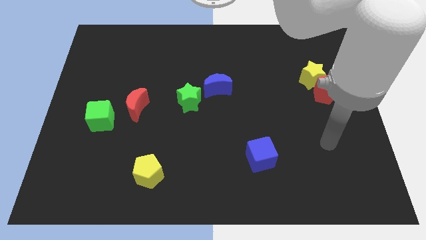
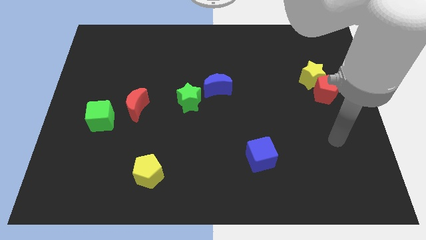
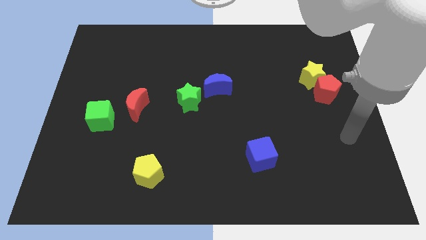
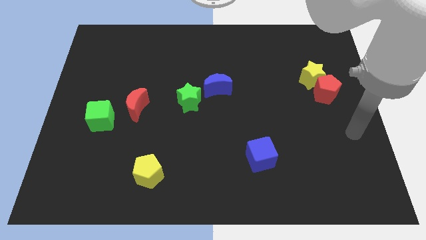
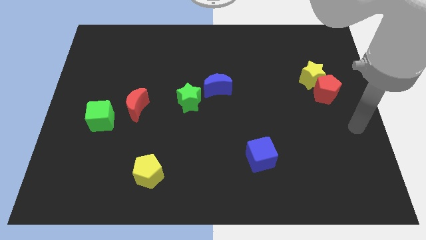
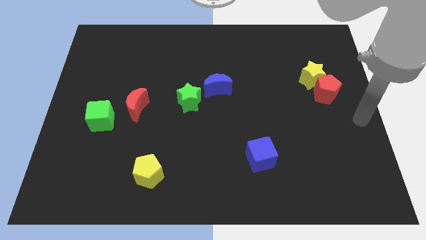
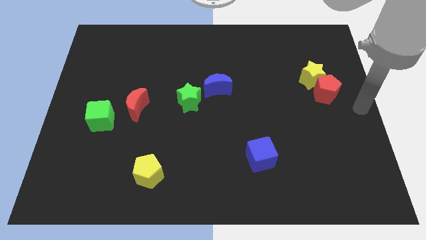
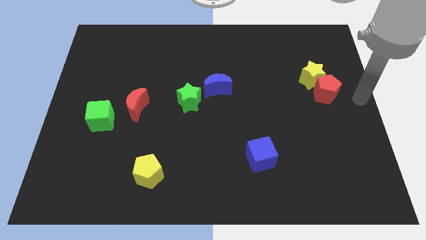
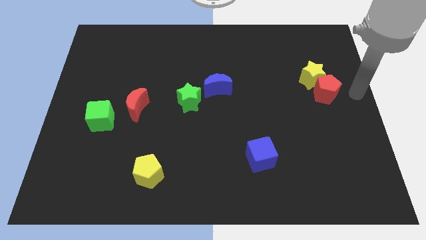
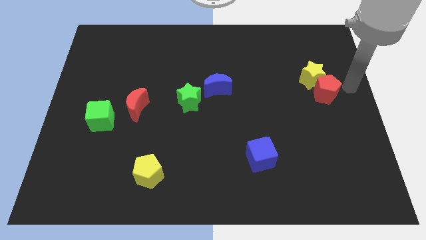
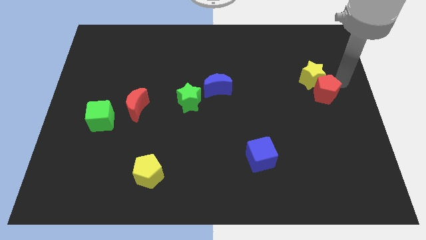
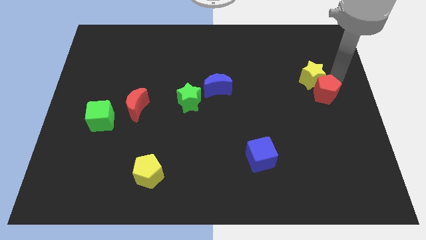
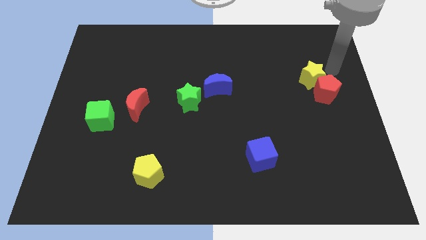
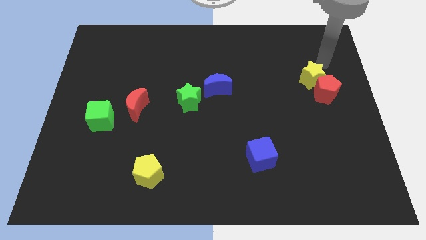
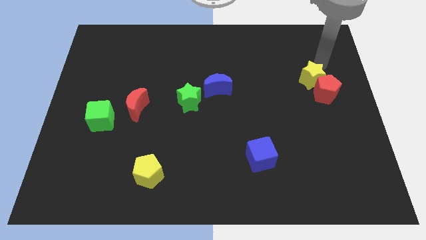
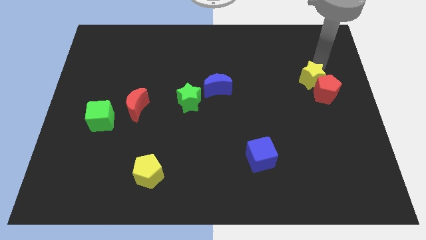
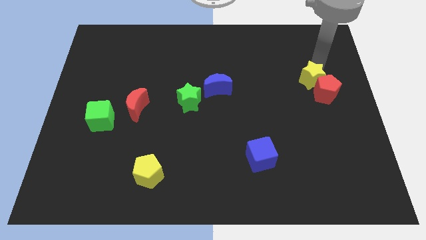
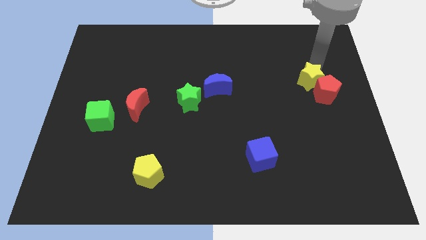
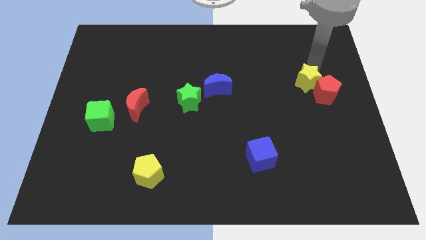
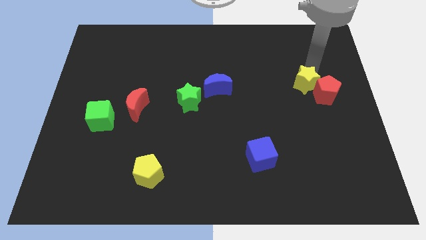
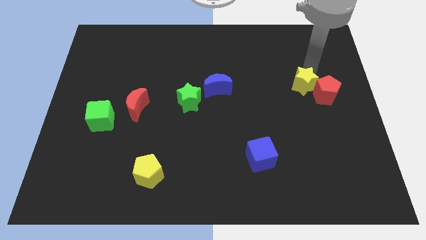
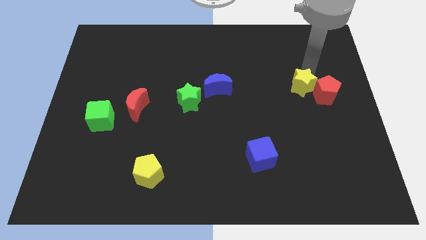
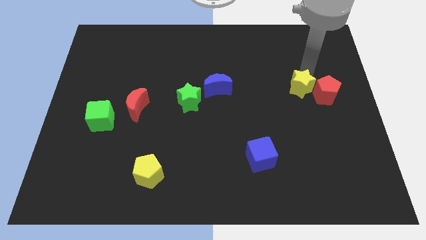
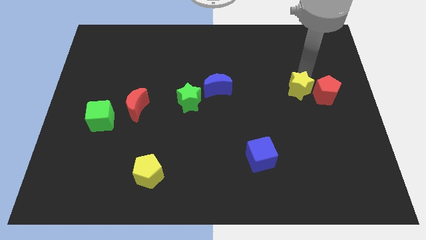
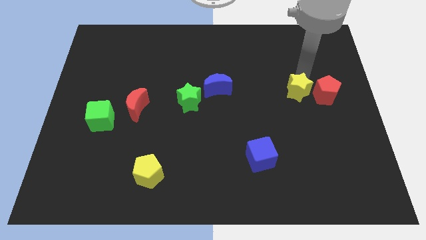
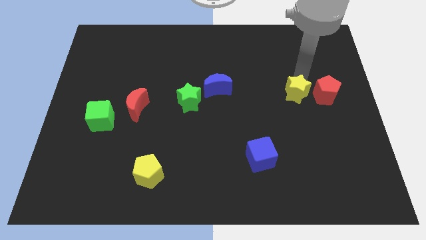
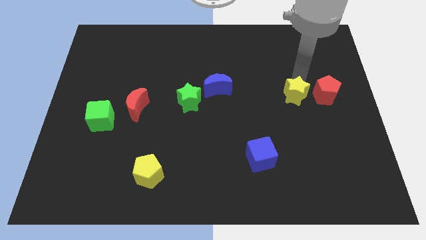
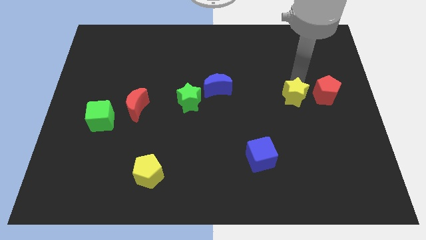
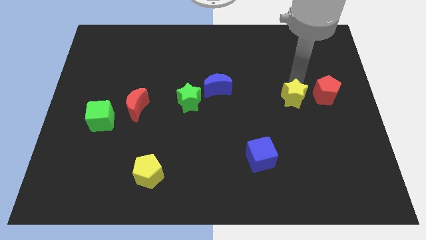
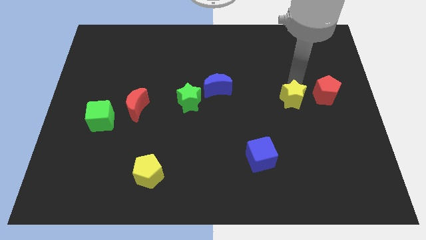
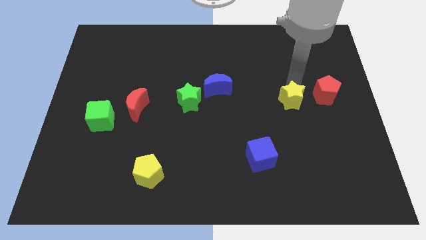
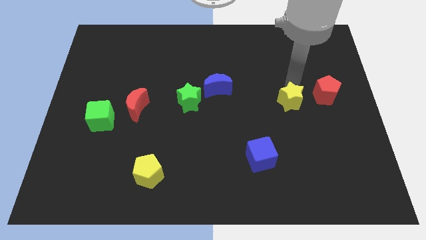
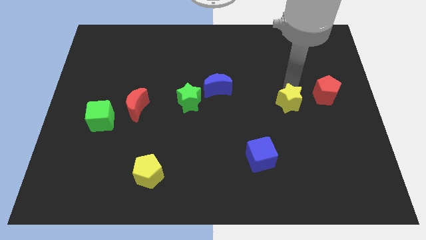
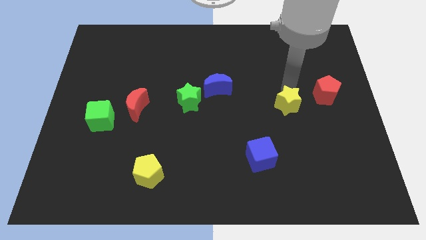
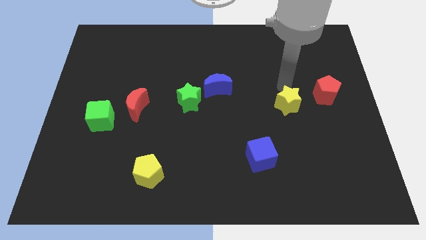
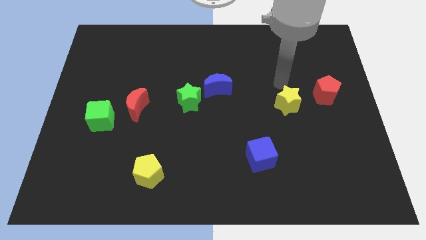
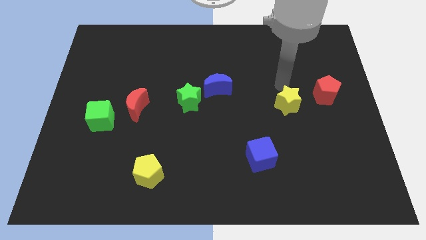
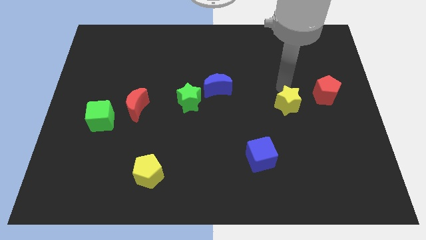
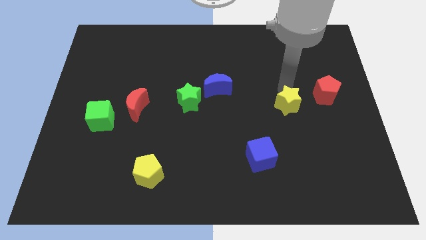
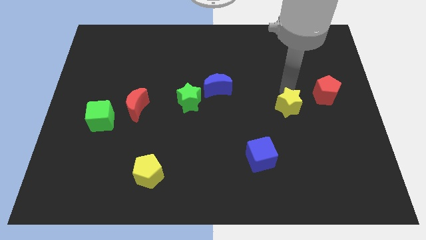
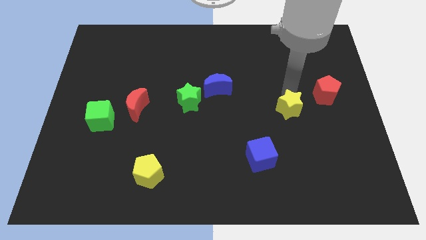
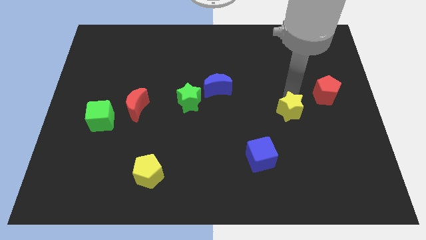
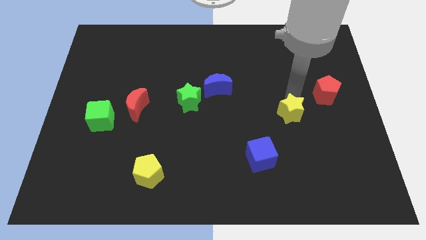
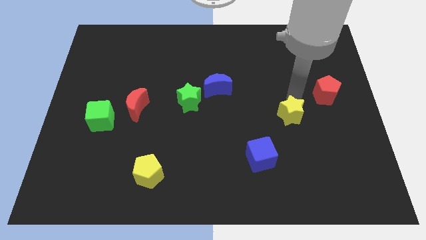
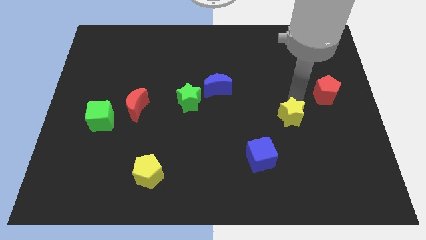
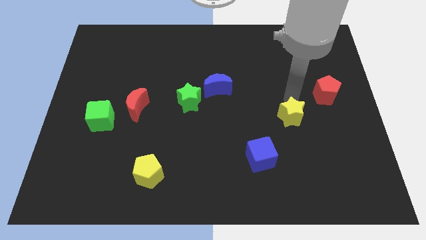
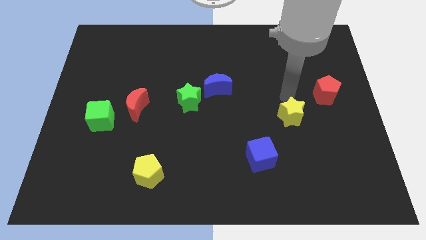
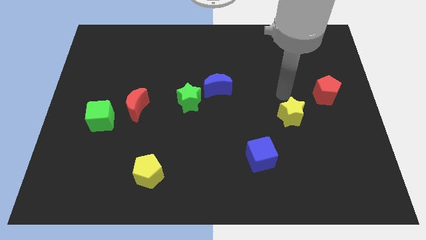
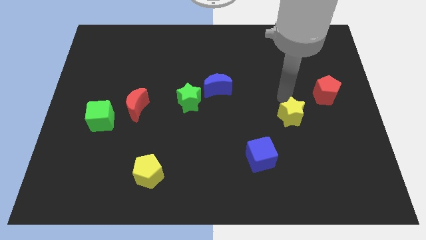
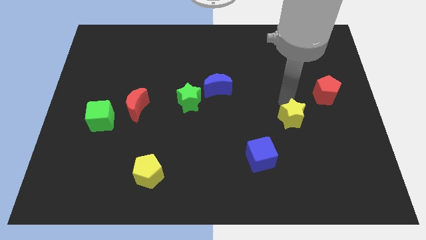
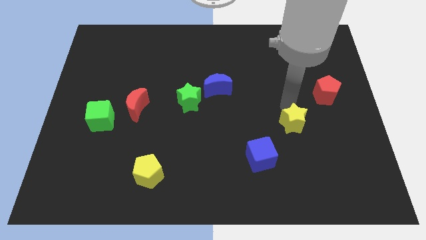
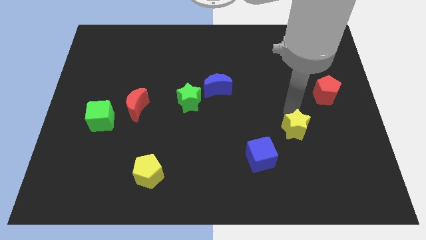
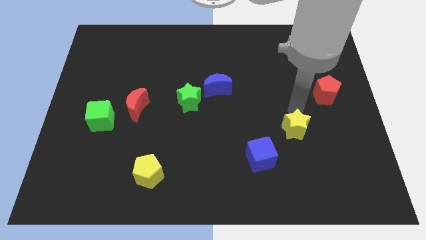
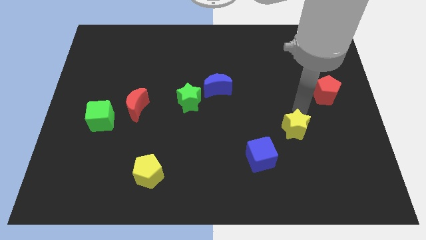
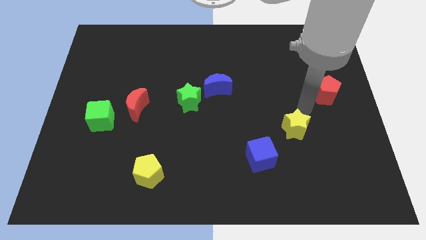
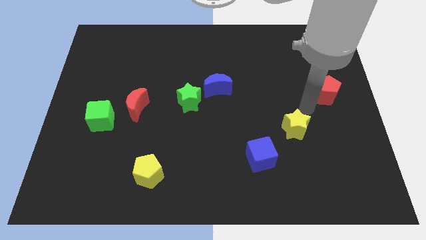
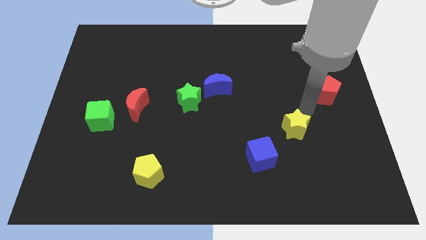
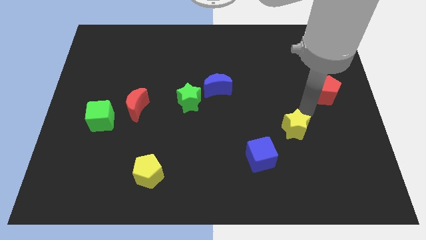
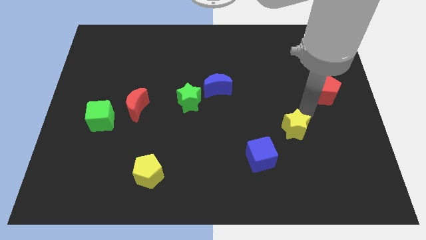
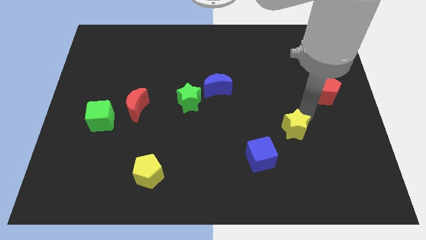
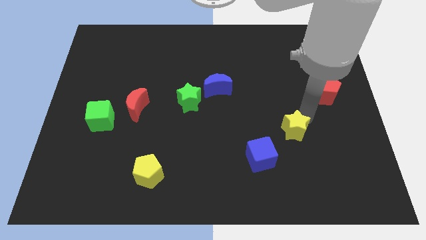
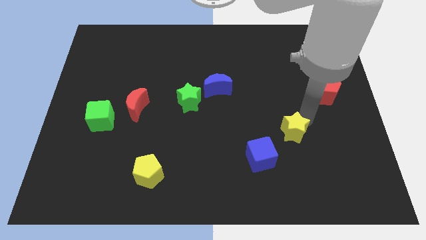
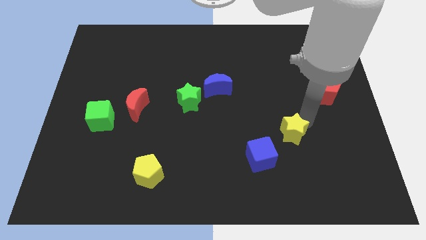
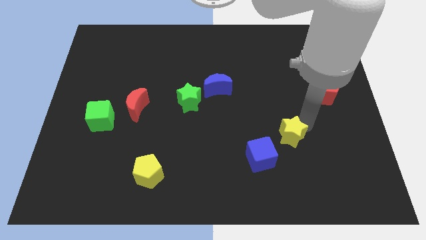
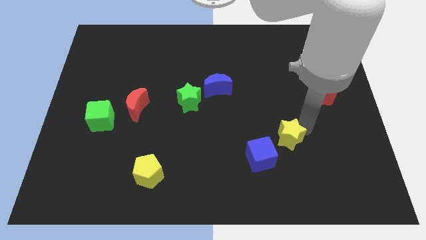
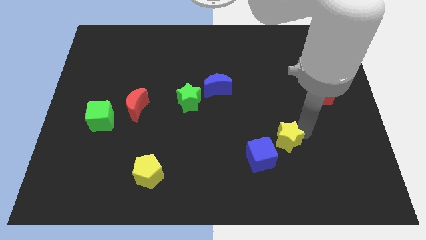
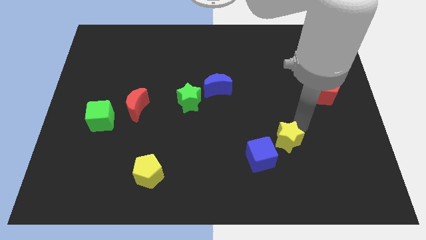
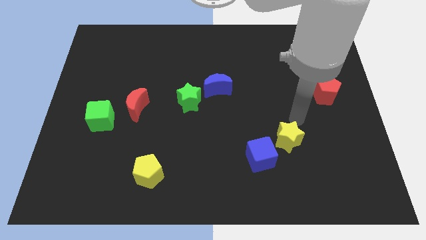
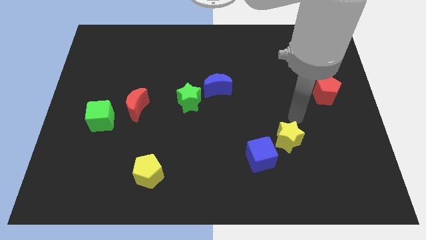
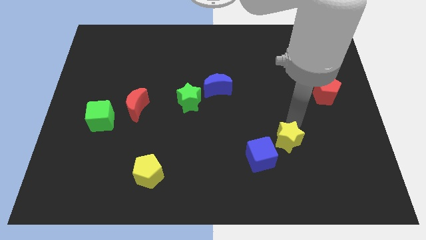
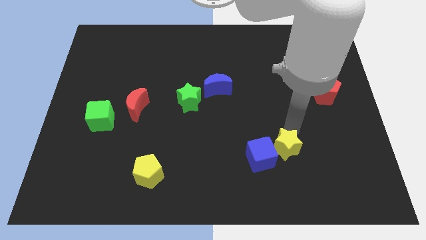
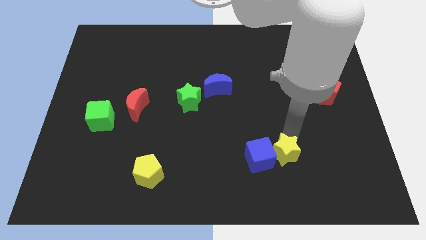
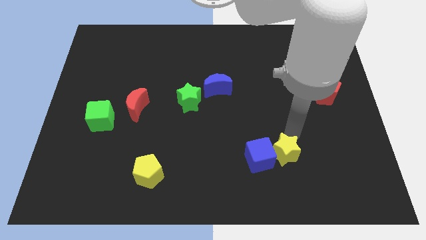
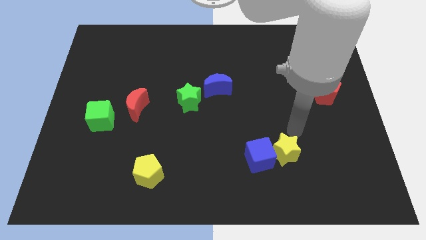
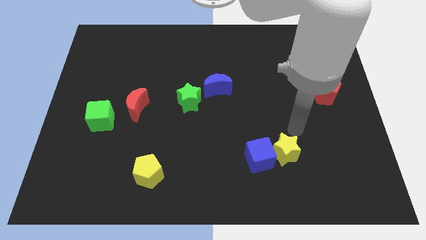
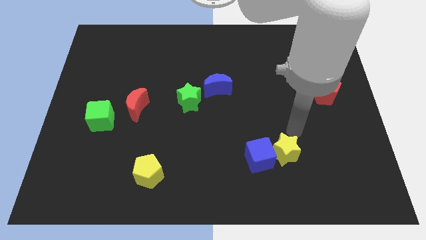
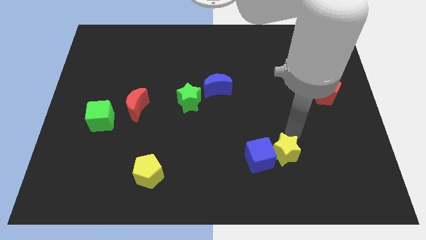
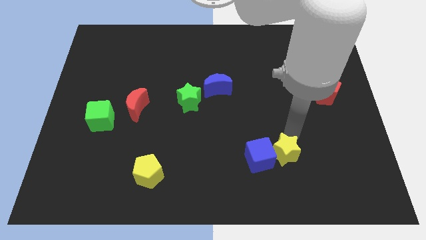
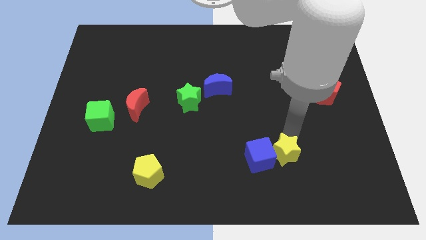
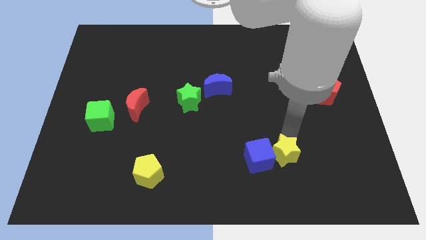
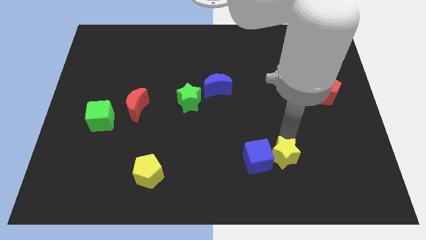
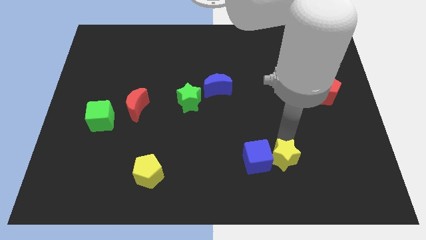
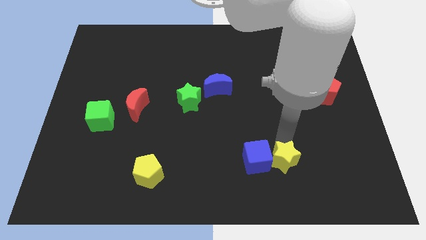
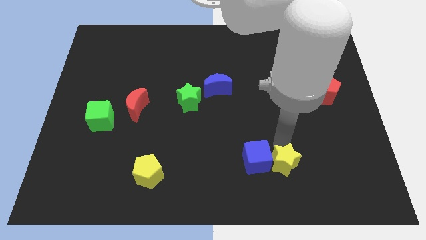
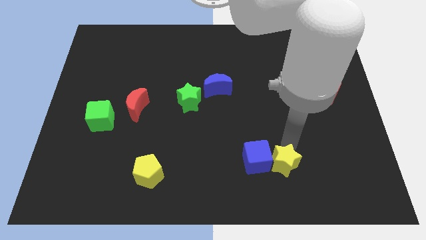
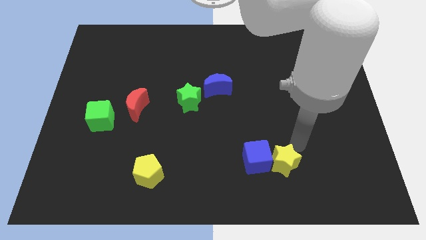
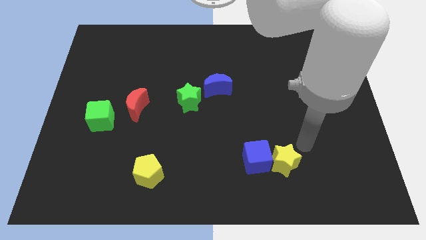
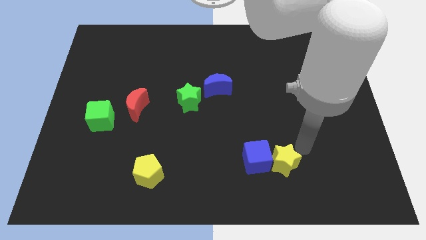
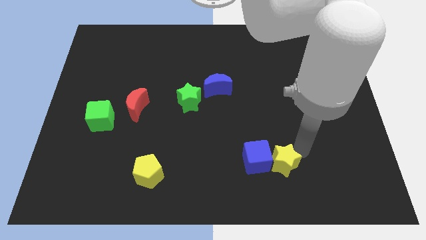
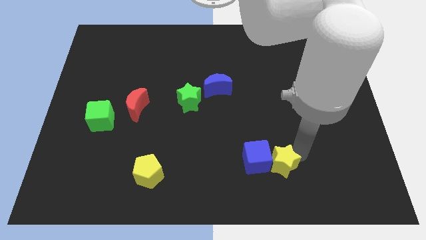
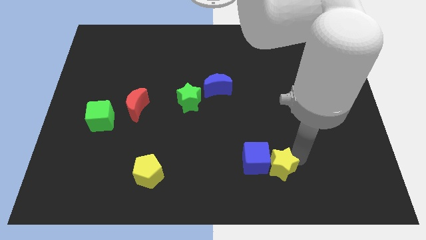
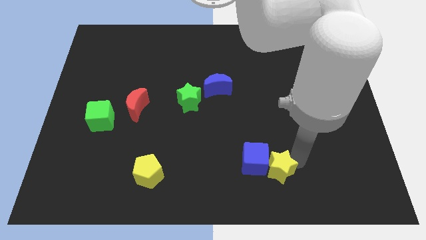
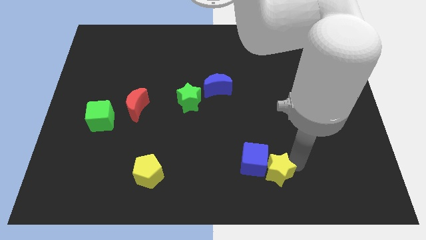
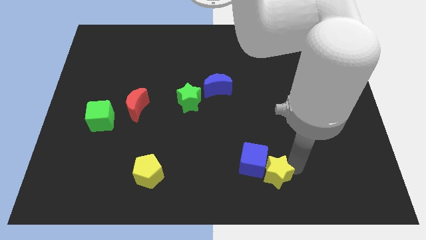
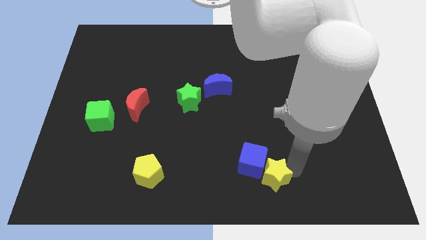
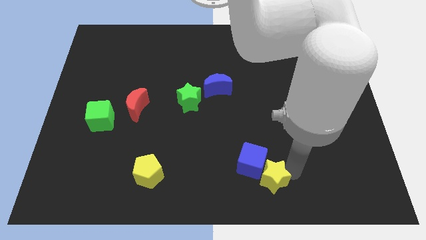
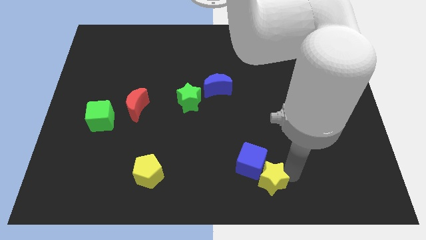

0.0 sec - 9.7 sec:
put the yellow star to the bottom
